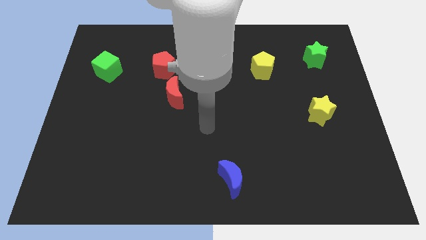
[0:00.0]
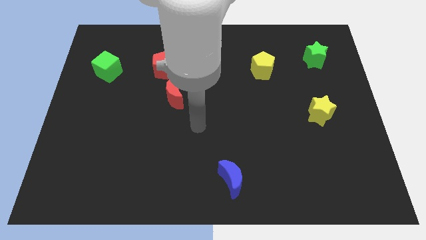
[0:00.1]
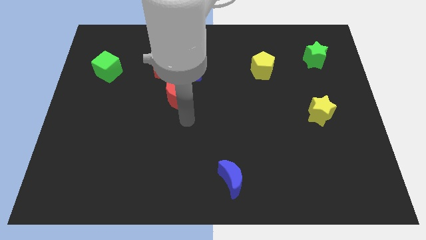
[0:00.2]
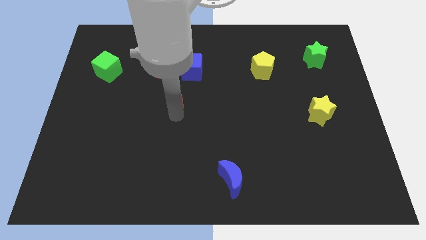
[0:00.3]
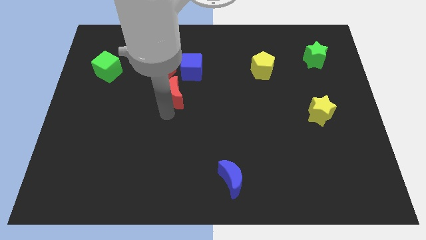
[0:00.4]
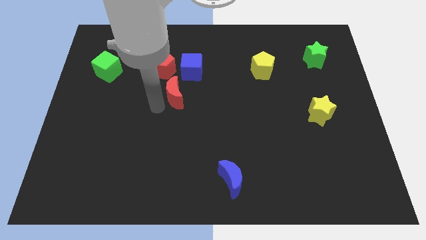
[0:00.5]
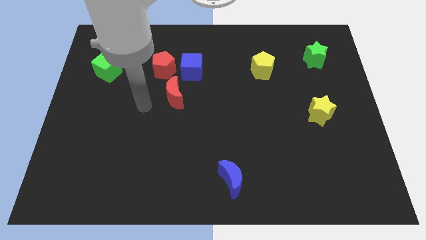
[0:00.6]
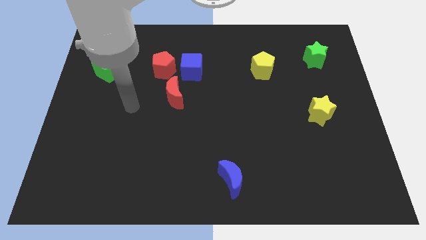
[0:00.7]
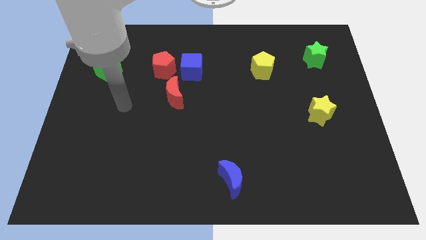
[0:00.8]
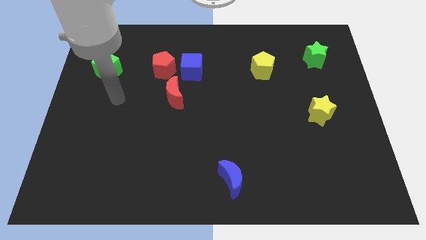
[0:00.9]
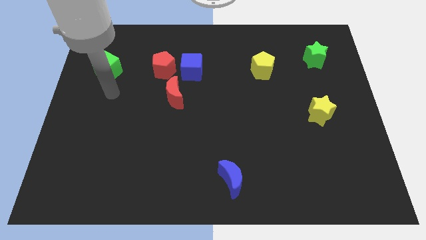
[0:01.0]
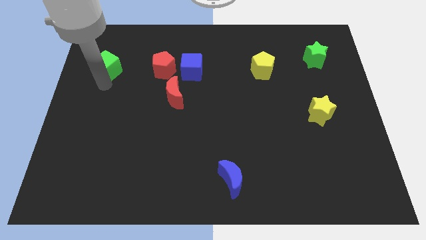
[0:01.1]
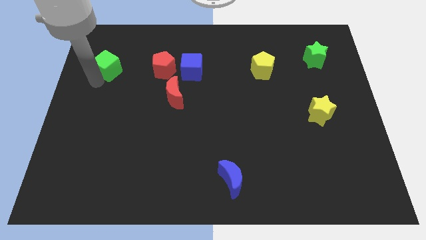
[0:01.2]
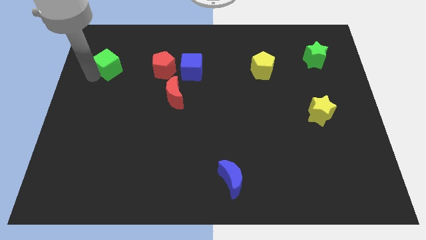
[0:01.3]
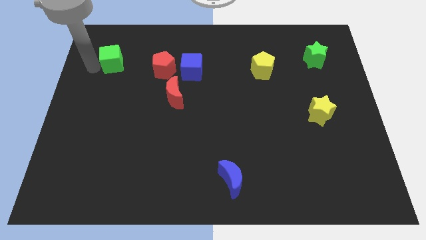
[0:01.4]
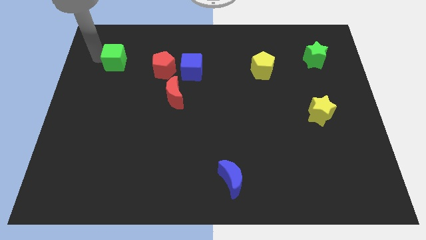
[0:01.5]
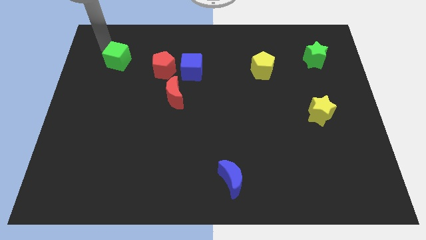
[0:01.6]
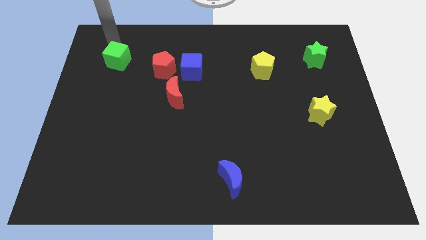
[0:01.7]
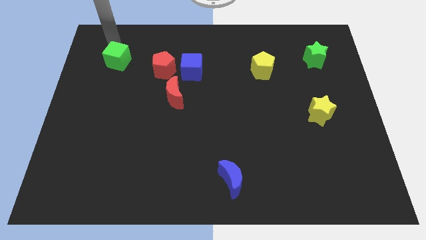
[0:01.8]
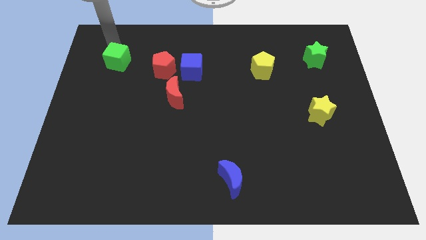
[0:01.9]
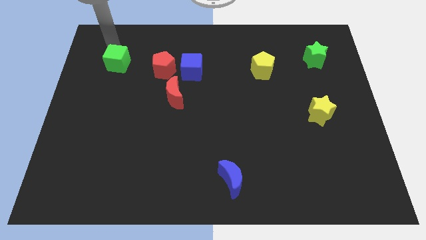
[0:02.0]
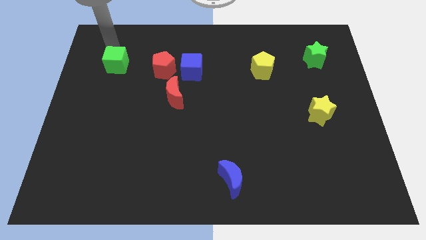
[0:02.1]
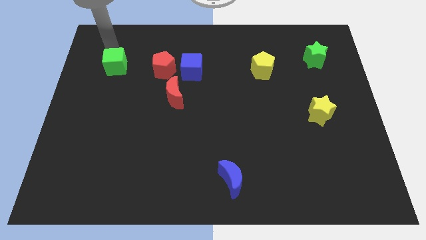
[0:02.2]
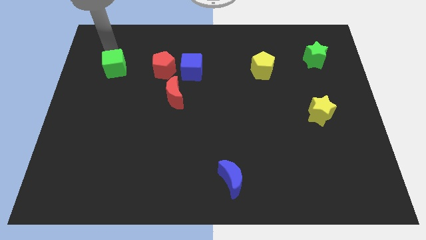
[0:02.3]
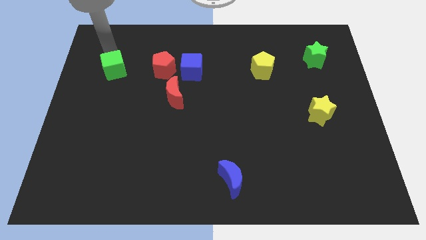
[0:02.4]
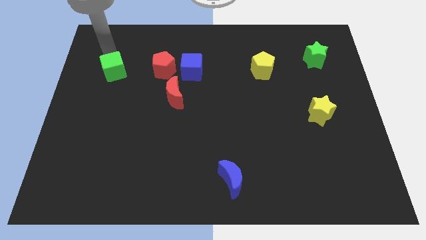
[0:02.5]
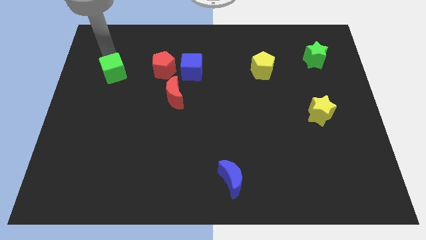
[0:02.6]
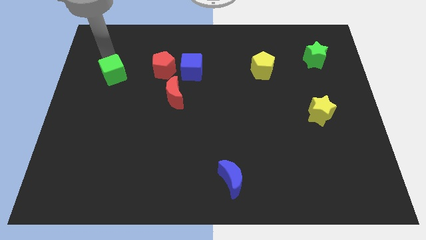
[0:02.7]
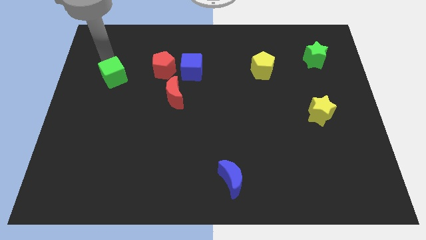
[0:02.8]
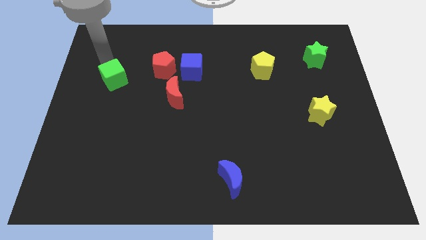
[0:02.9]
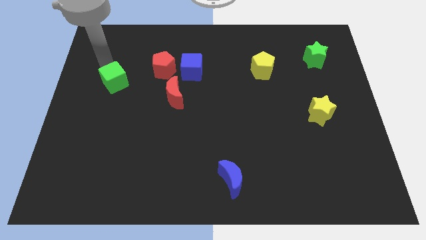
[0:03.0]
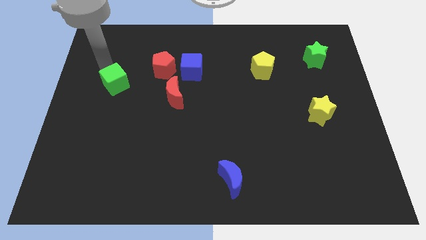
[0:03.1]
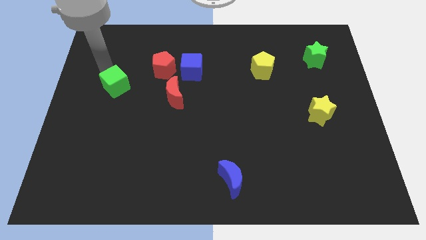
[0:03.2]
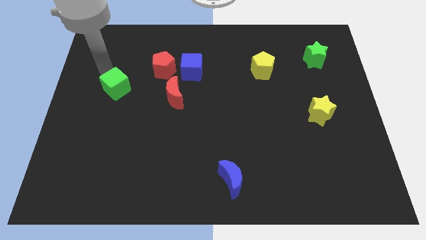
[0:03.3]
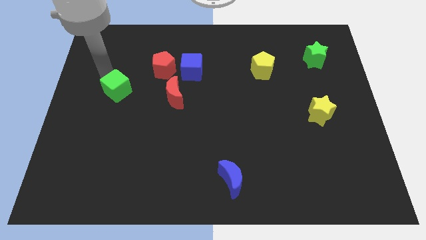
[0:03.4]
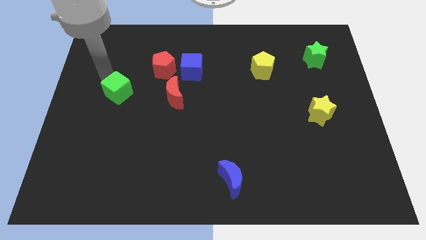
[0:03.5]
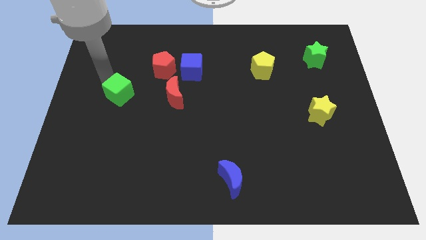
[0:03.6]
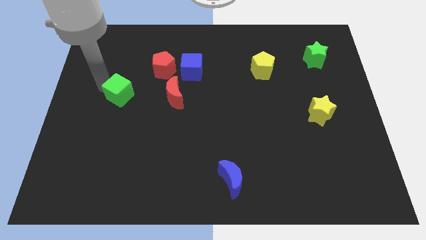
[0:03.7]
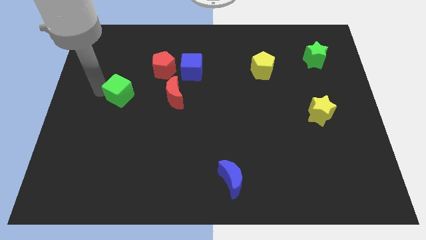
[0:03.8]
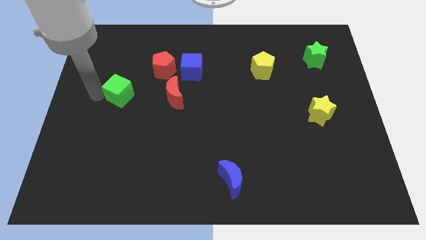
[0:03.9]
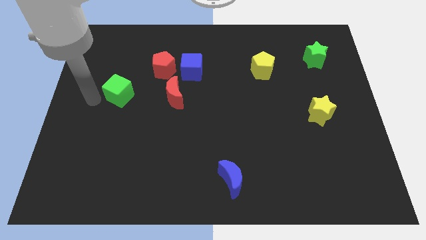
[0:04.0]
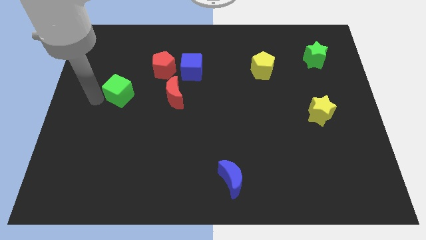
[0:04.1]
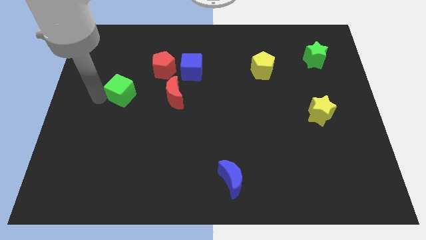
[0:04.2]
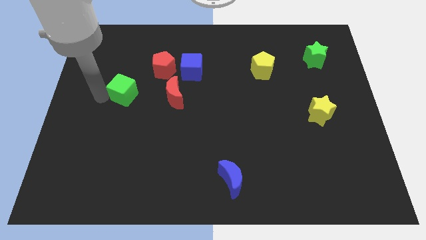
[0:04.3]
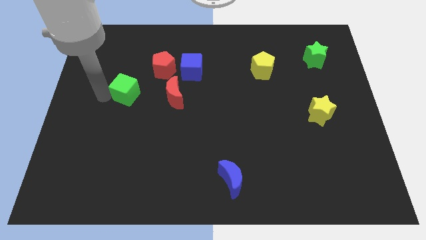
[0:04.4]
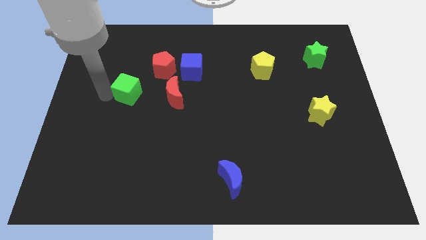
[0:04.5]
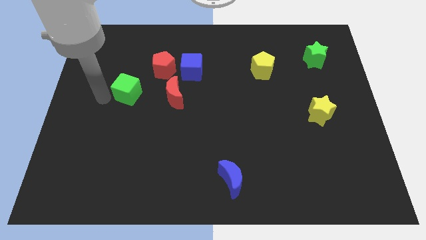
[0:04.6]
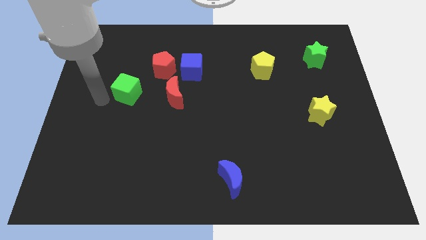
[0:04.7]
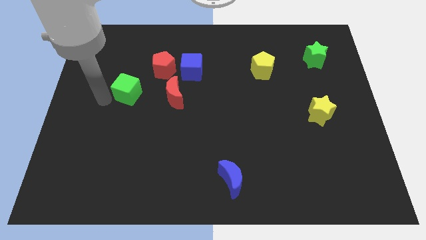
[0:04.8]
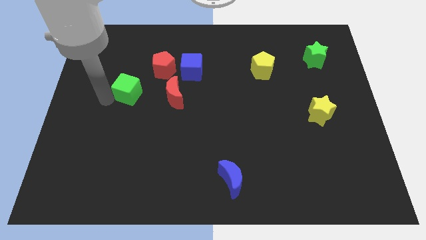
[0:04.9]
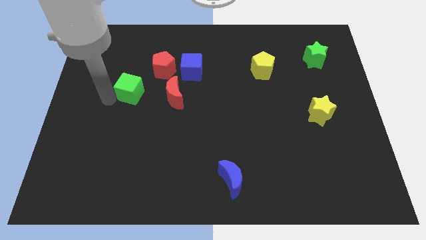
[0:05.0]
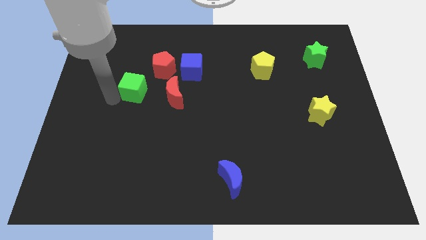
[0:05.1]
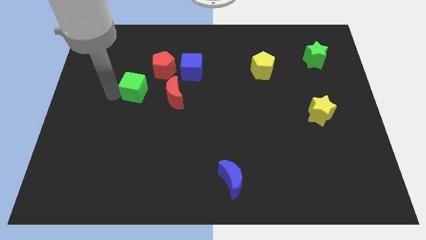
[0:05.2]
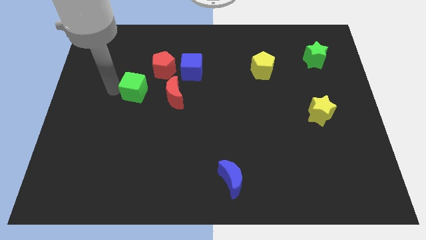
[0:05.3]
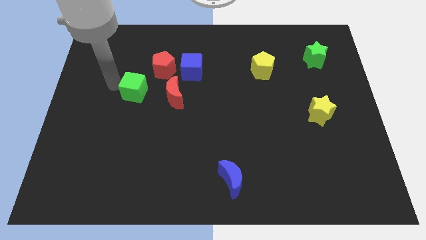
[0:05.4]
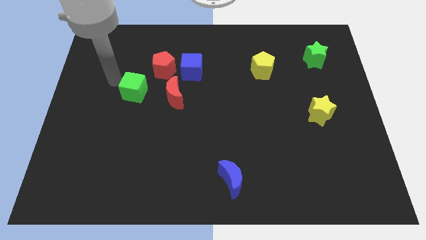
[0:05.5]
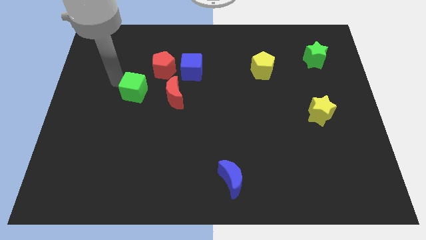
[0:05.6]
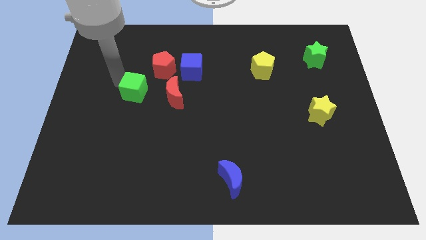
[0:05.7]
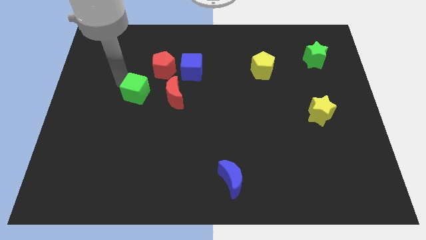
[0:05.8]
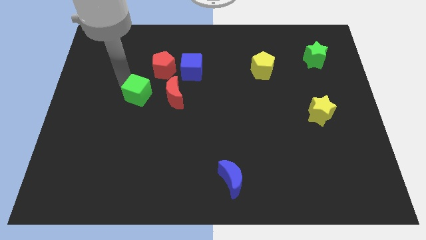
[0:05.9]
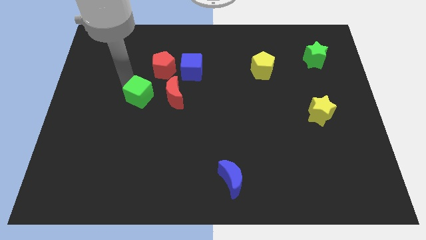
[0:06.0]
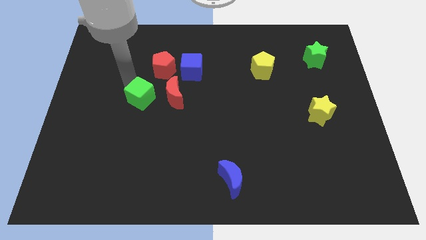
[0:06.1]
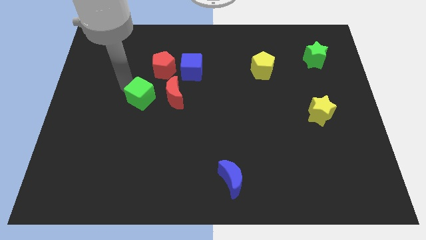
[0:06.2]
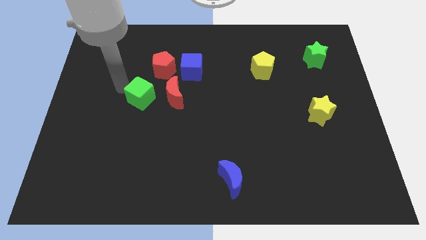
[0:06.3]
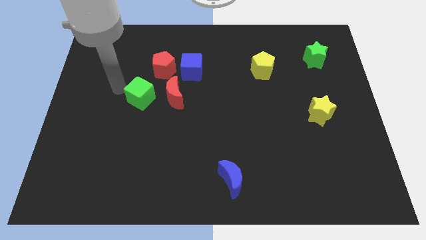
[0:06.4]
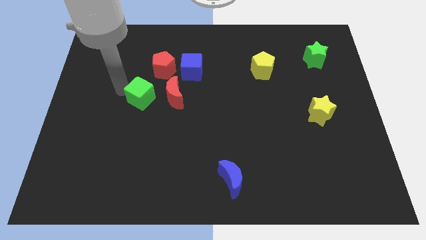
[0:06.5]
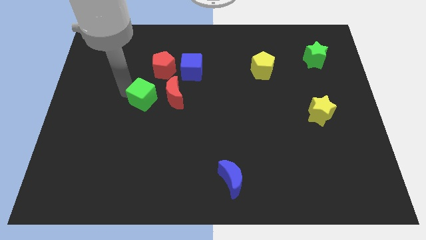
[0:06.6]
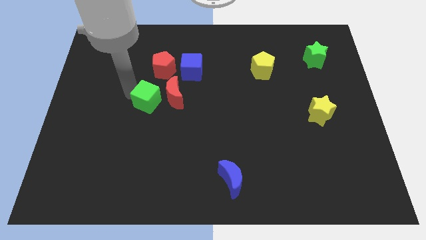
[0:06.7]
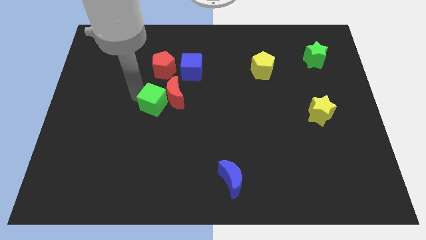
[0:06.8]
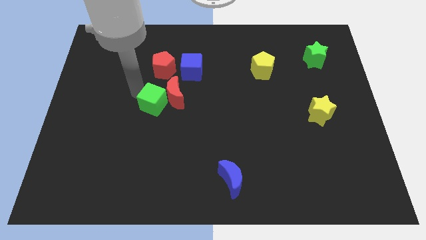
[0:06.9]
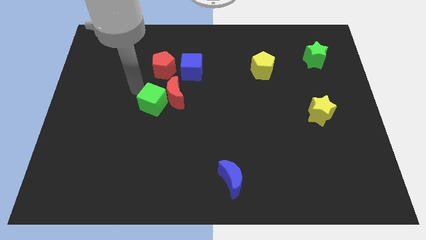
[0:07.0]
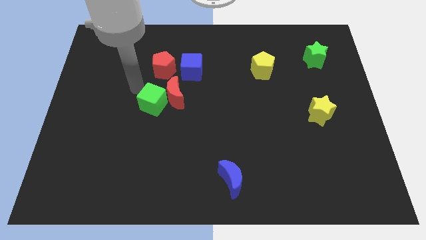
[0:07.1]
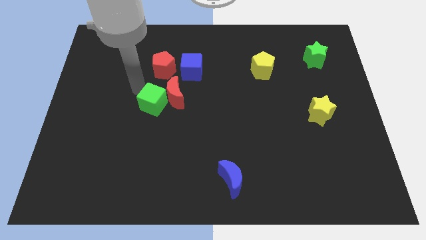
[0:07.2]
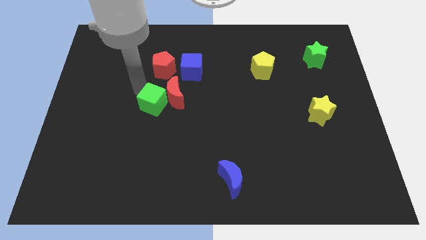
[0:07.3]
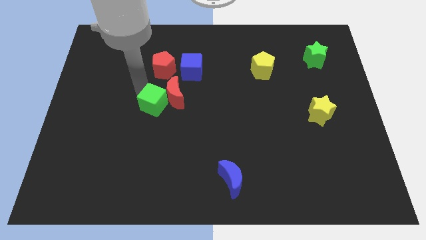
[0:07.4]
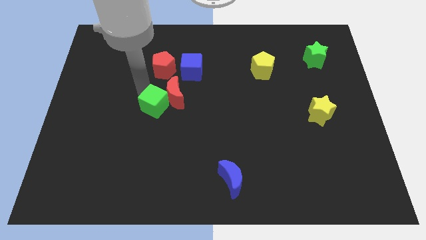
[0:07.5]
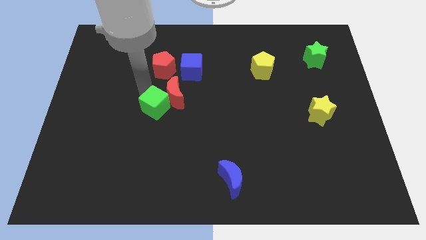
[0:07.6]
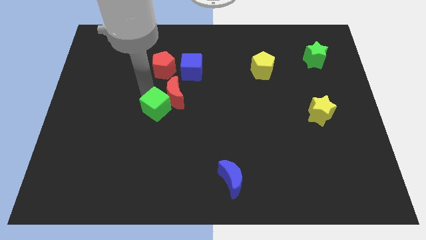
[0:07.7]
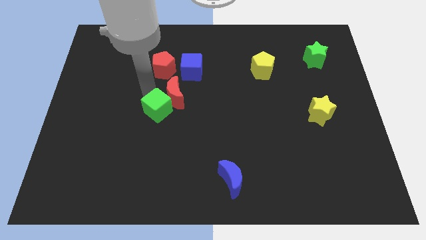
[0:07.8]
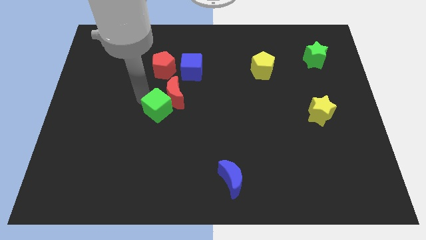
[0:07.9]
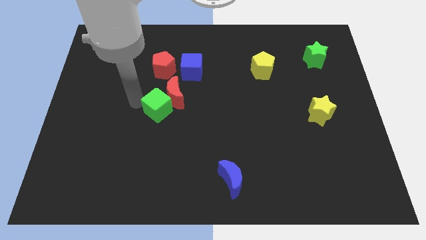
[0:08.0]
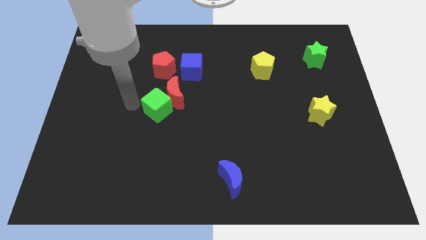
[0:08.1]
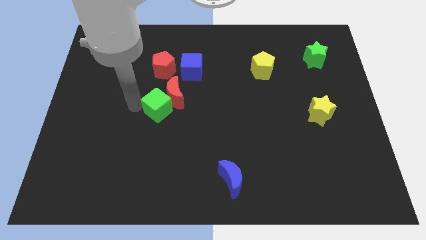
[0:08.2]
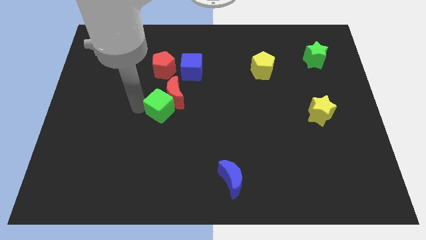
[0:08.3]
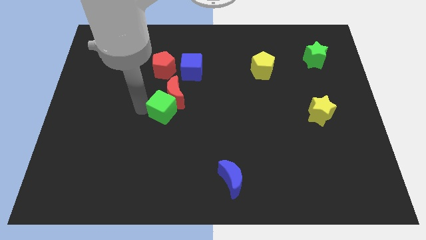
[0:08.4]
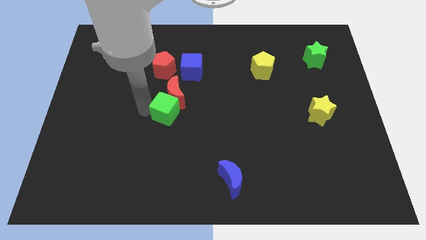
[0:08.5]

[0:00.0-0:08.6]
move the green cube to the bottom right of the red moon
